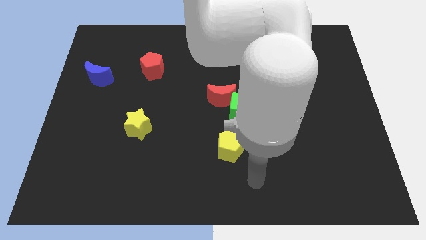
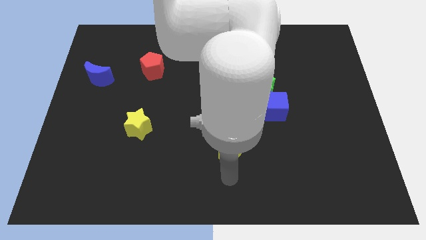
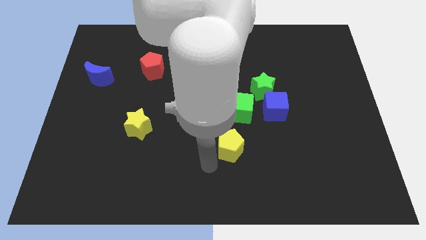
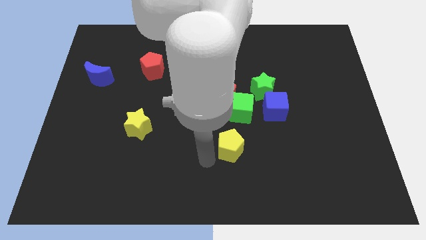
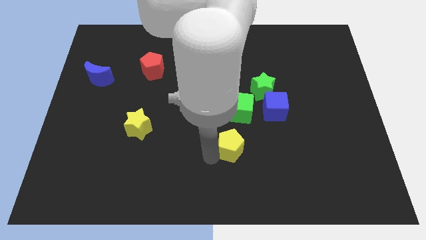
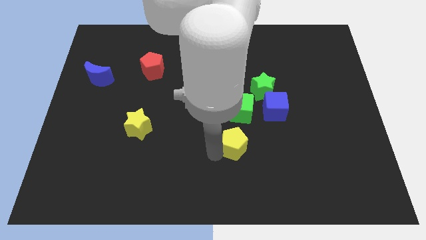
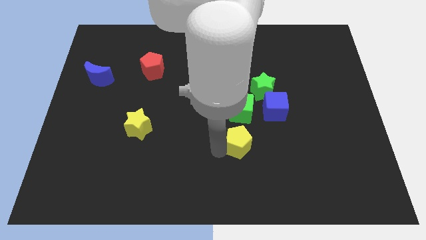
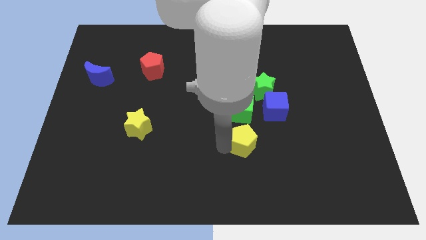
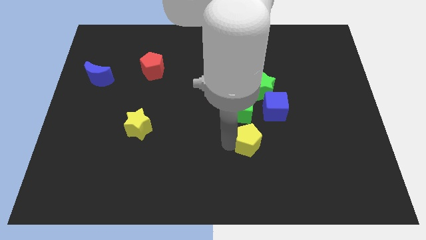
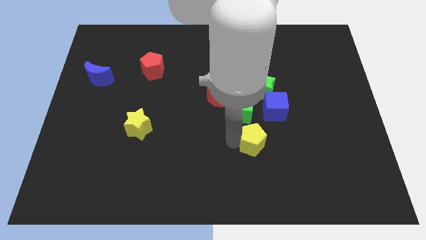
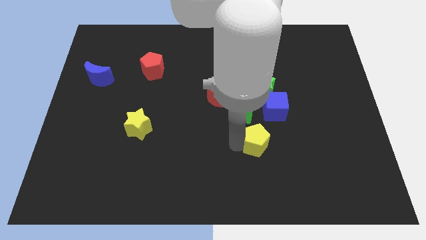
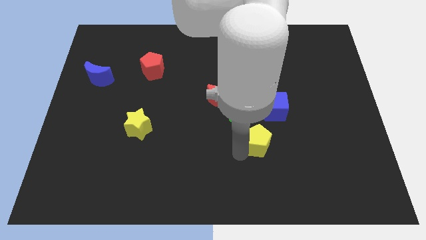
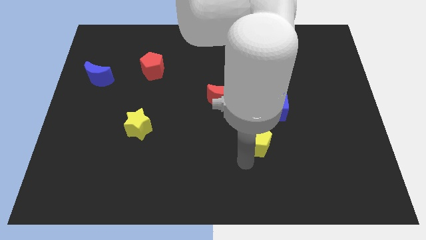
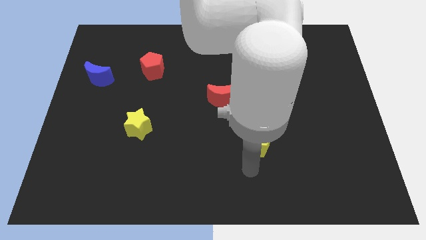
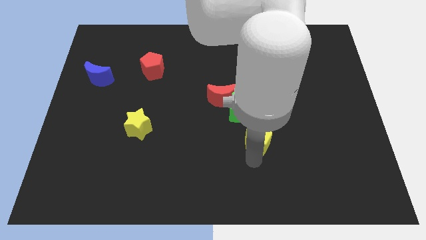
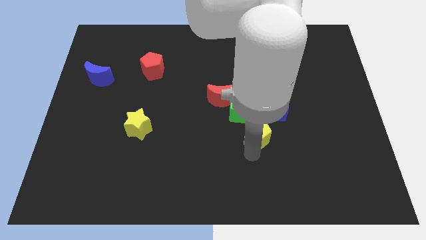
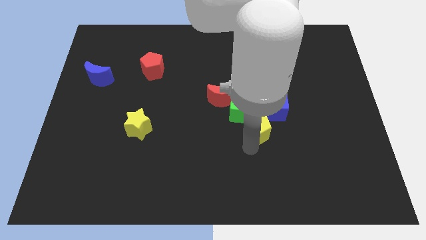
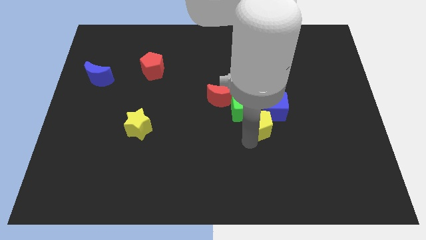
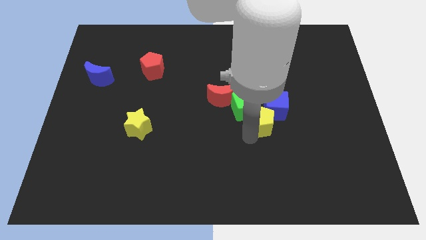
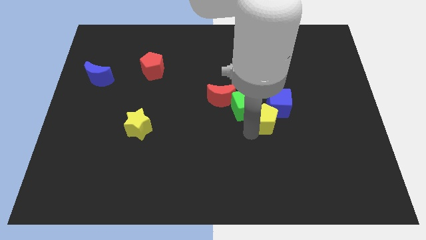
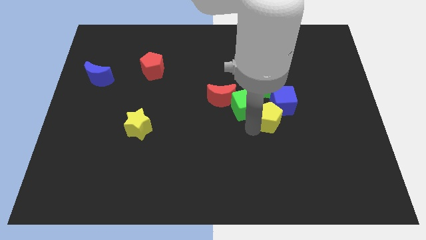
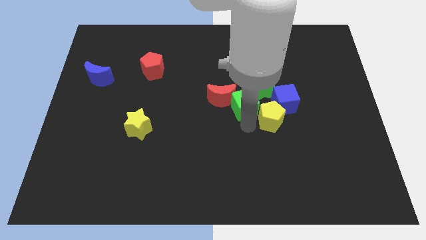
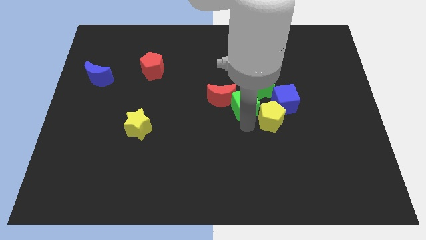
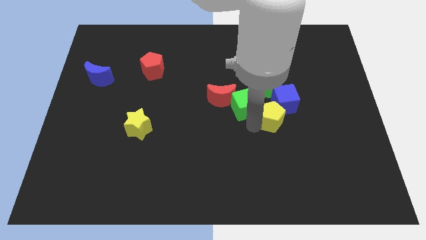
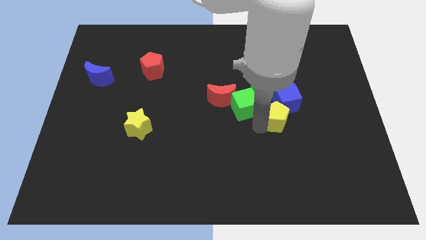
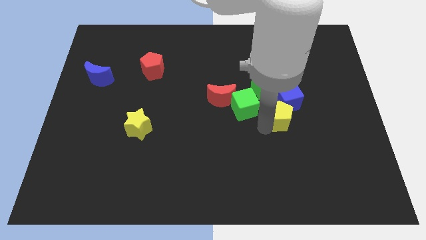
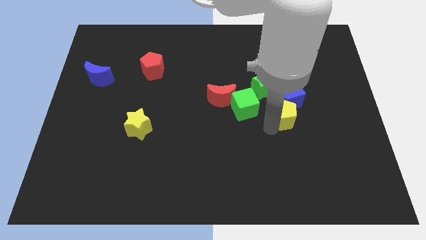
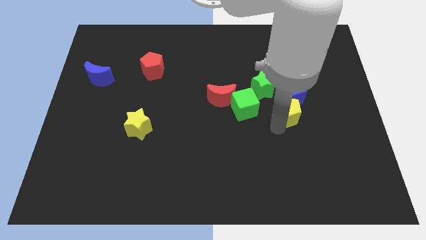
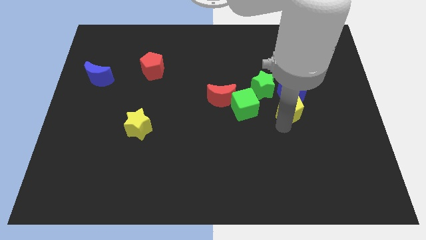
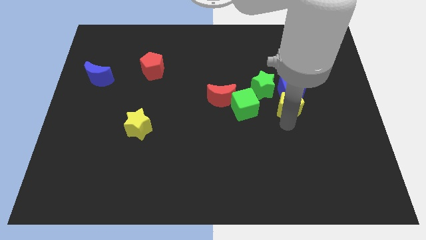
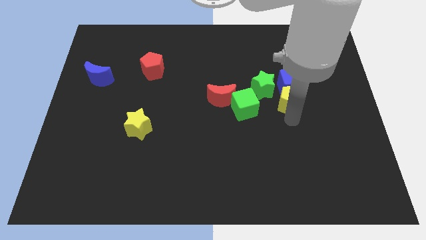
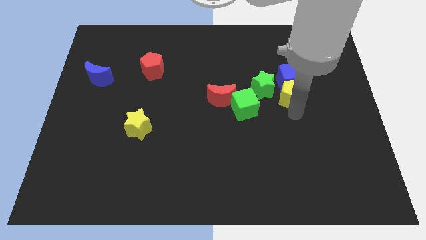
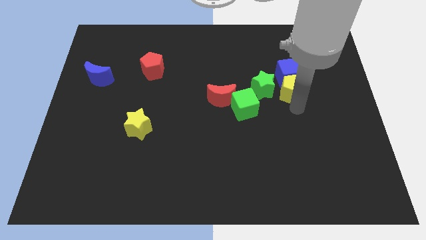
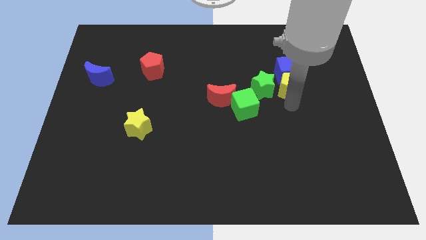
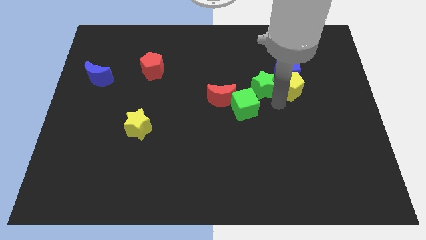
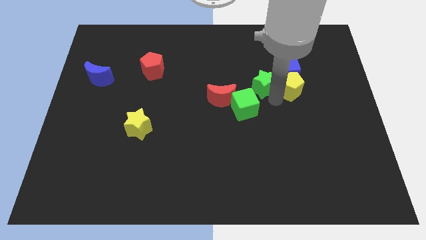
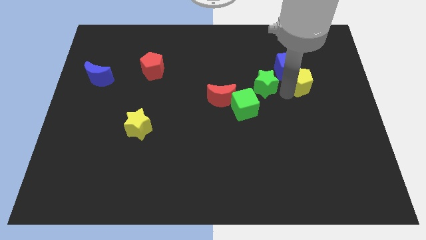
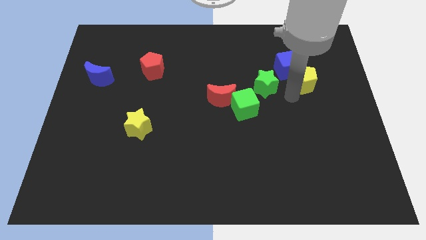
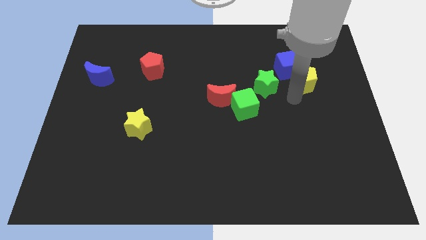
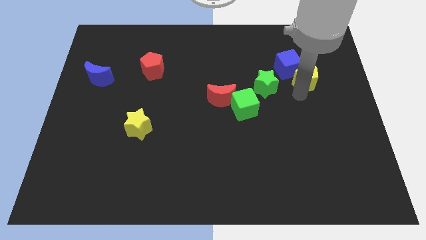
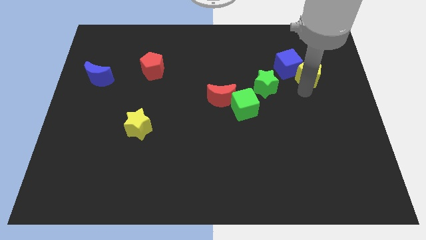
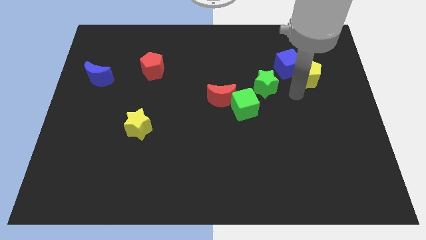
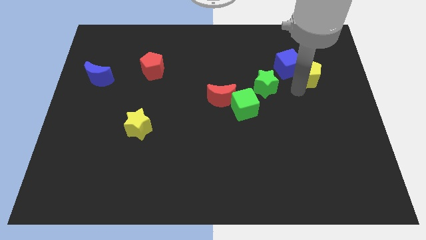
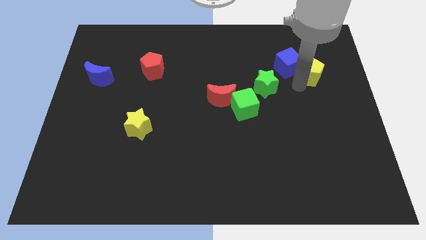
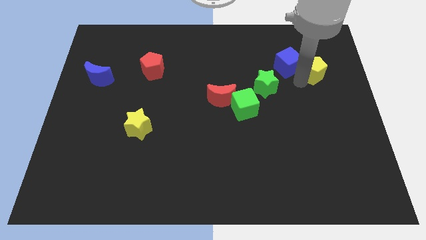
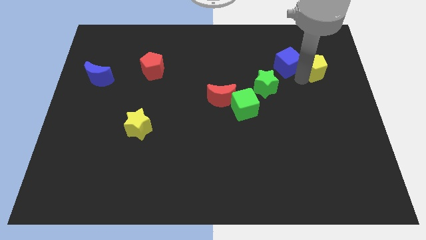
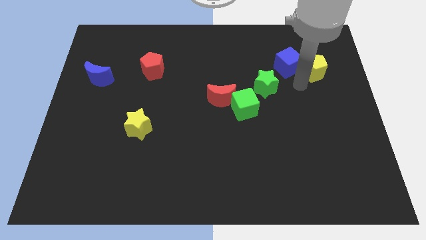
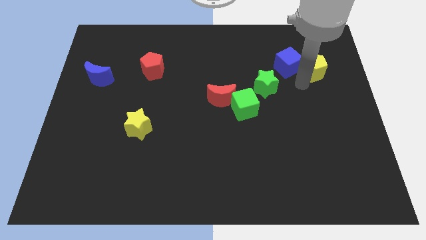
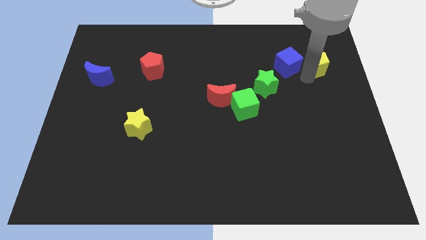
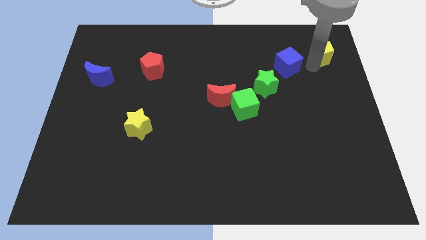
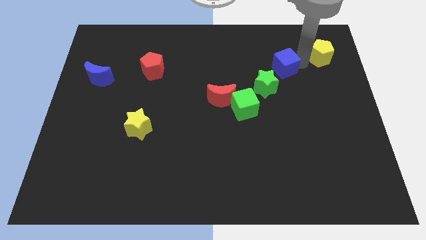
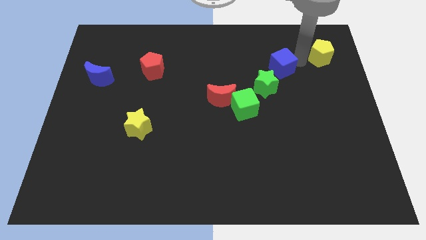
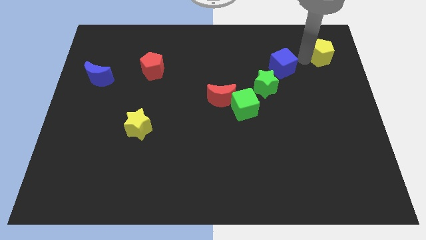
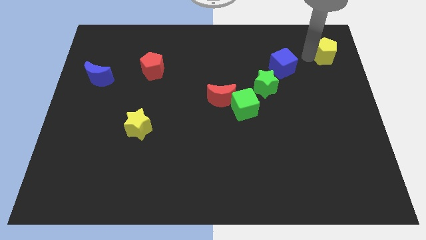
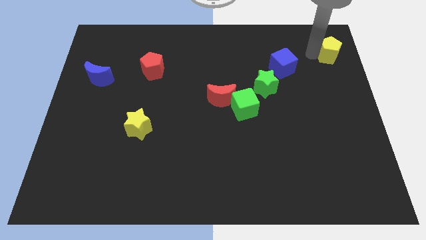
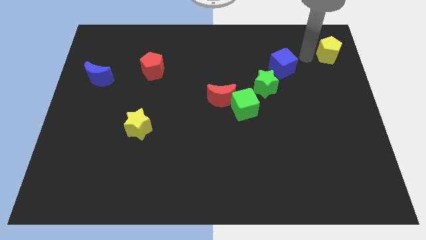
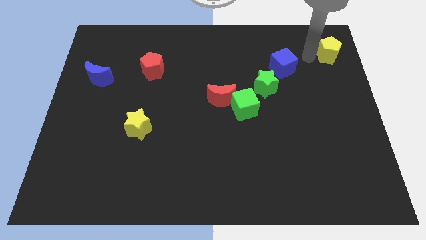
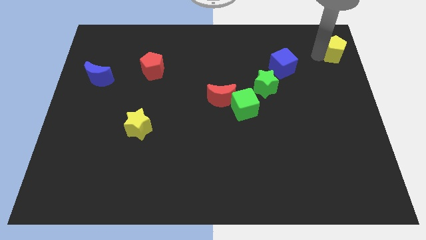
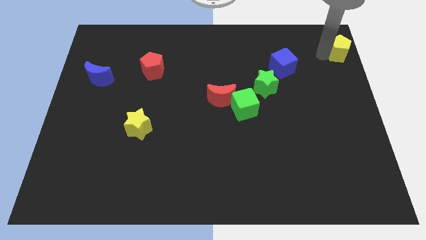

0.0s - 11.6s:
push the yellow pentagon to the top right of the board
